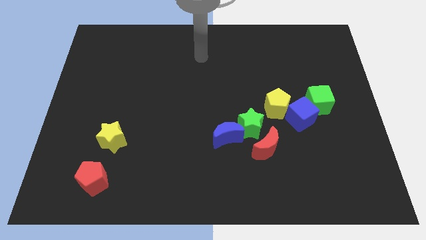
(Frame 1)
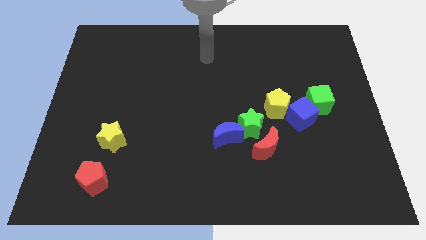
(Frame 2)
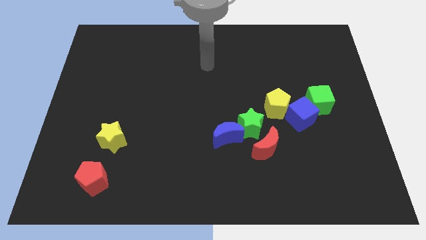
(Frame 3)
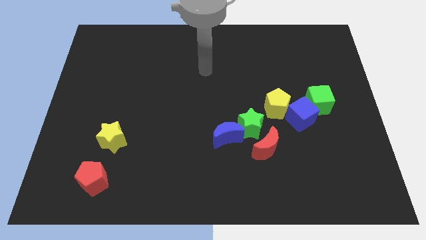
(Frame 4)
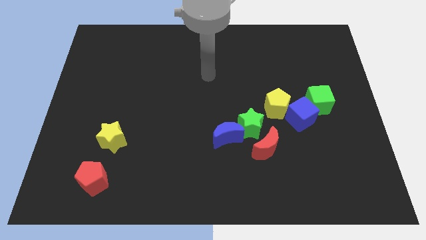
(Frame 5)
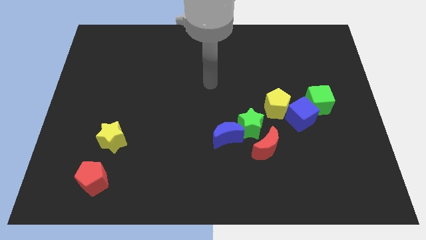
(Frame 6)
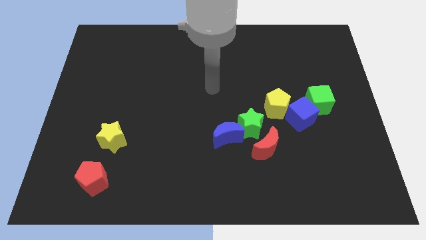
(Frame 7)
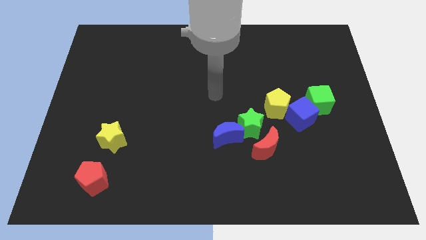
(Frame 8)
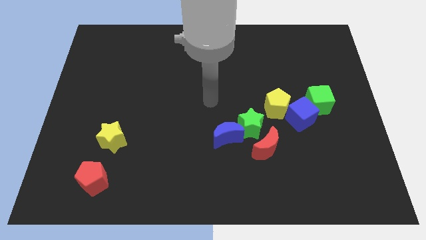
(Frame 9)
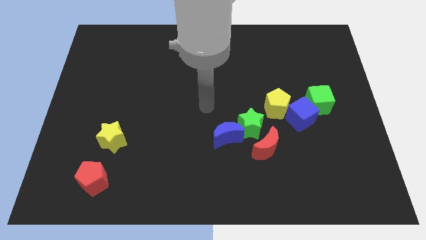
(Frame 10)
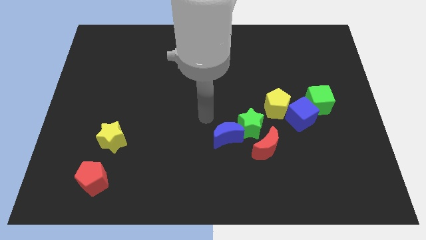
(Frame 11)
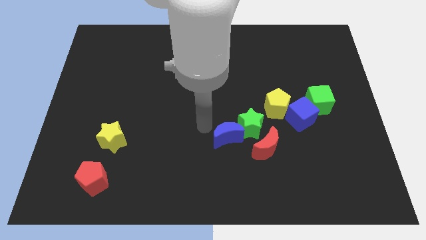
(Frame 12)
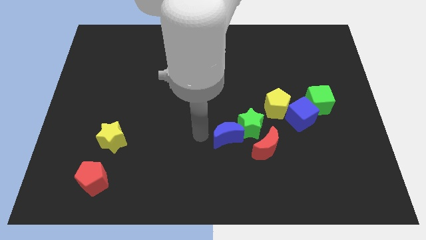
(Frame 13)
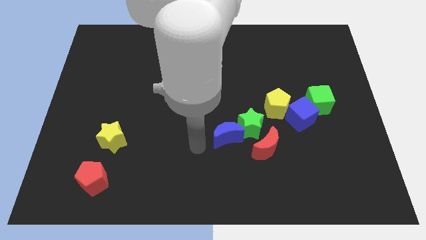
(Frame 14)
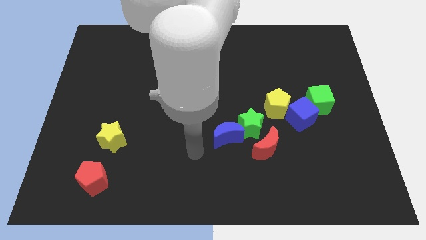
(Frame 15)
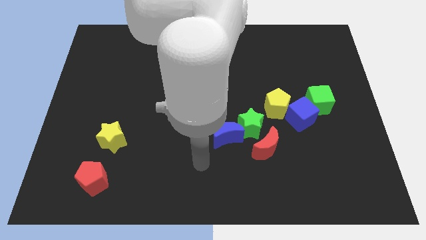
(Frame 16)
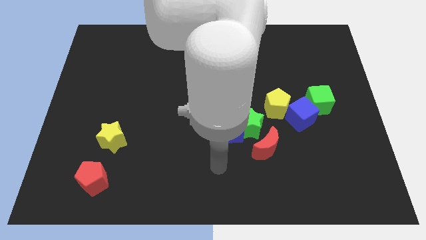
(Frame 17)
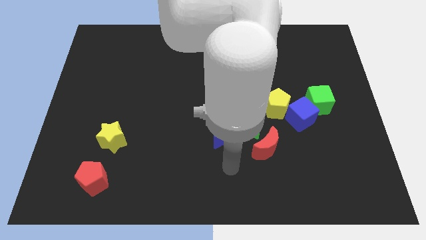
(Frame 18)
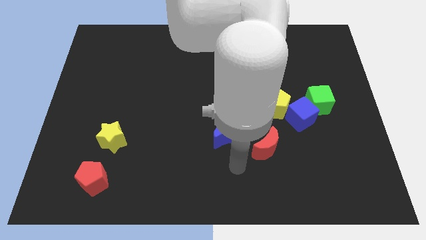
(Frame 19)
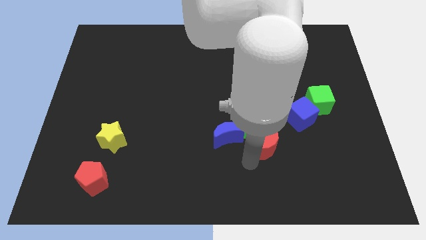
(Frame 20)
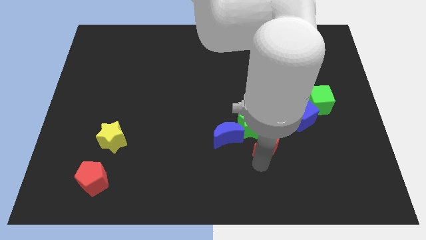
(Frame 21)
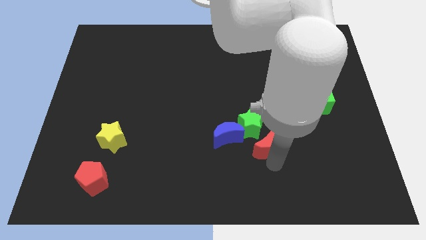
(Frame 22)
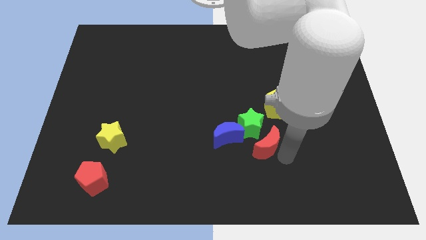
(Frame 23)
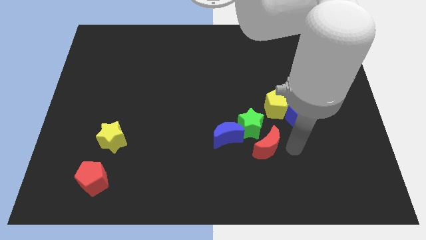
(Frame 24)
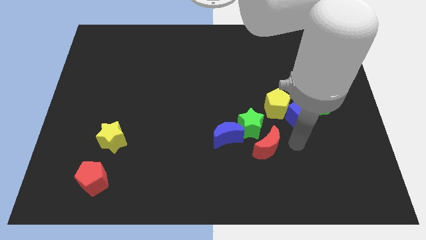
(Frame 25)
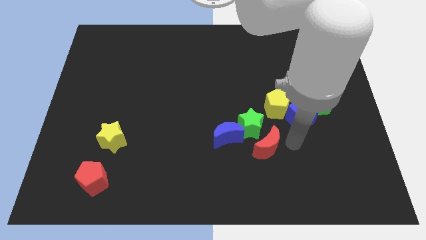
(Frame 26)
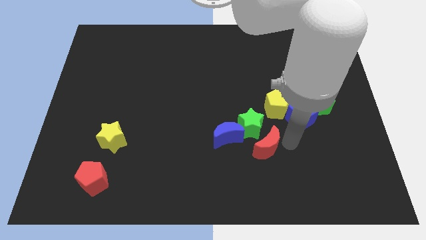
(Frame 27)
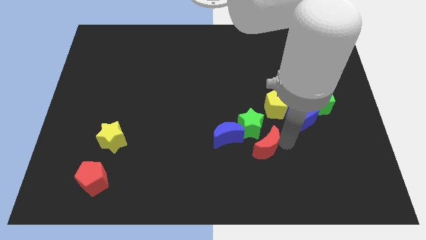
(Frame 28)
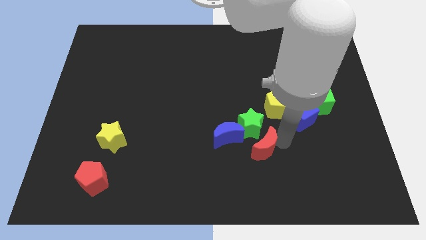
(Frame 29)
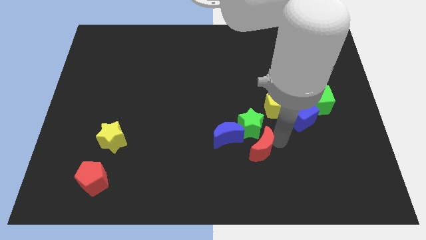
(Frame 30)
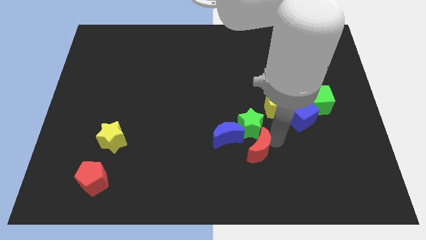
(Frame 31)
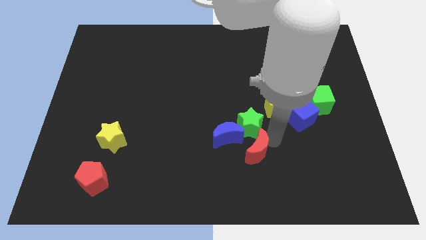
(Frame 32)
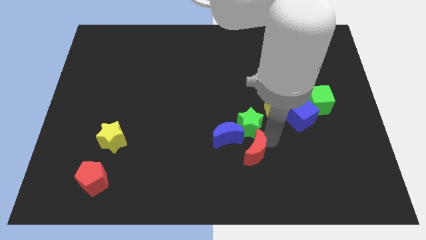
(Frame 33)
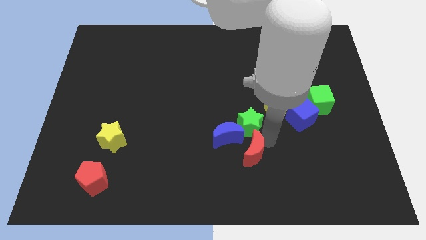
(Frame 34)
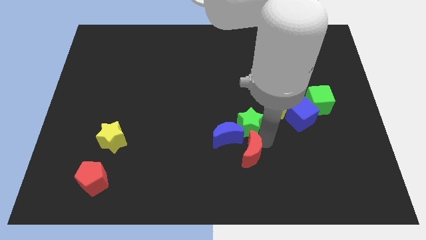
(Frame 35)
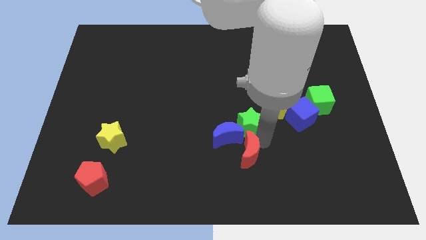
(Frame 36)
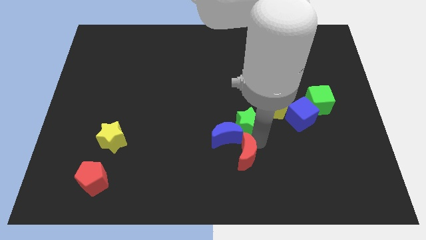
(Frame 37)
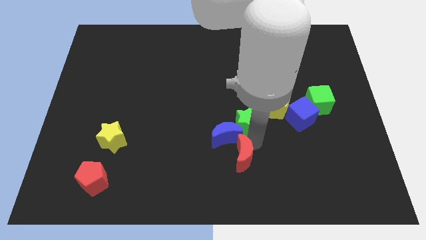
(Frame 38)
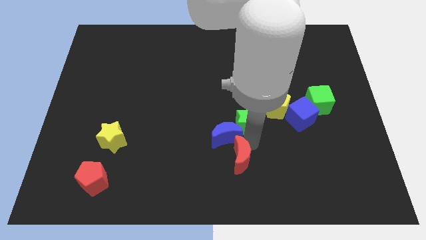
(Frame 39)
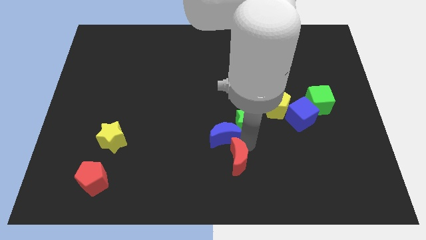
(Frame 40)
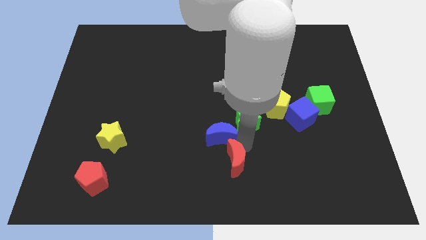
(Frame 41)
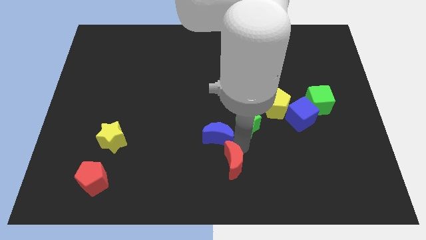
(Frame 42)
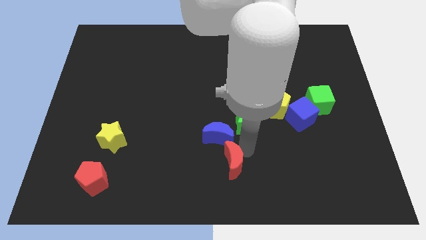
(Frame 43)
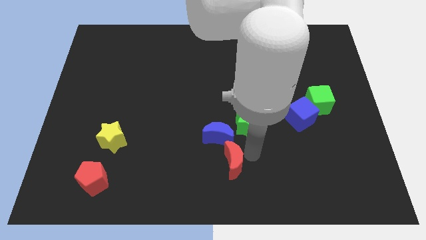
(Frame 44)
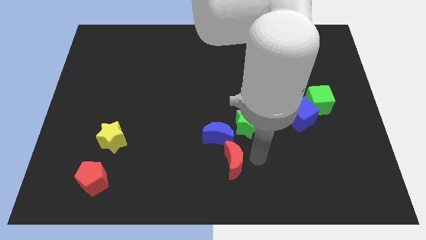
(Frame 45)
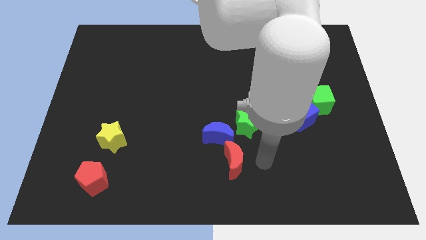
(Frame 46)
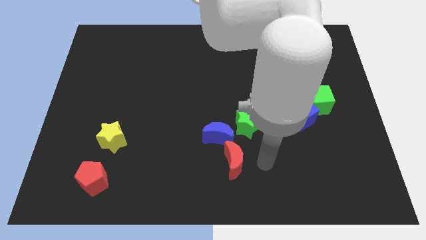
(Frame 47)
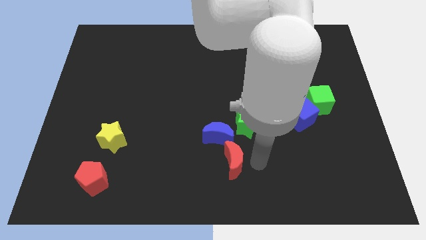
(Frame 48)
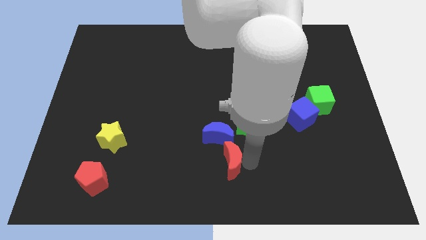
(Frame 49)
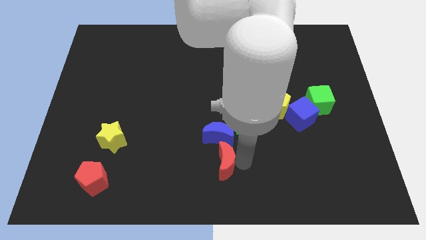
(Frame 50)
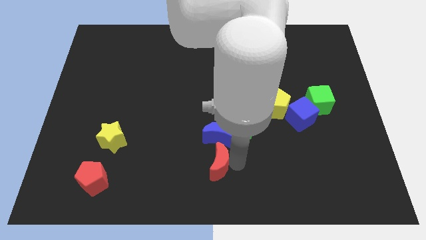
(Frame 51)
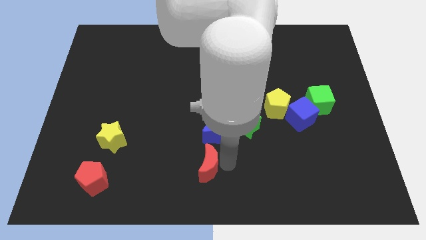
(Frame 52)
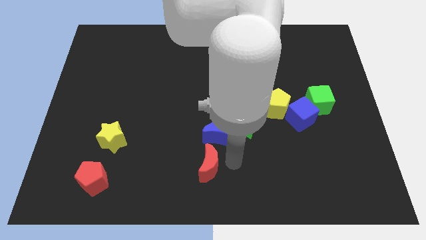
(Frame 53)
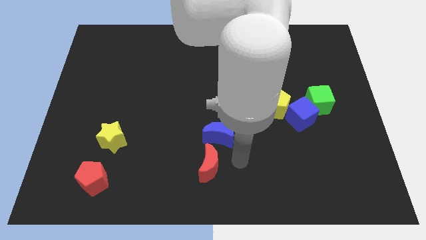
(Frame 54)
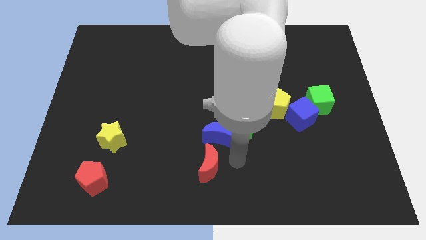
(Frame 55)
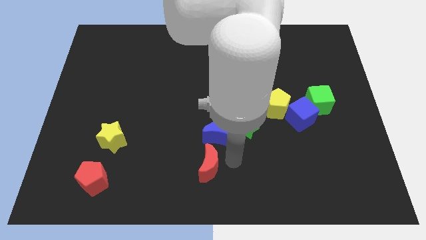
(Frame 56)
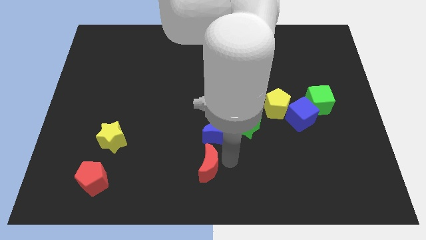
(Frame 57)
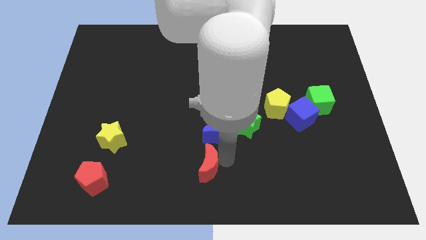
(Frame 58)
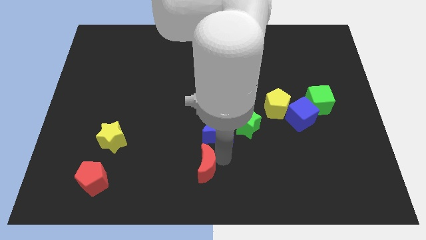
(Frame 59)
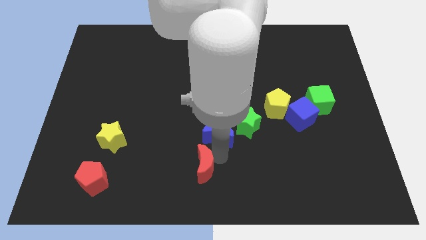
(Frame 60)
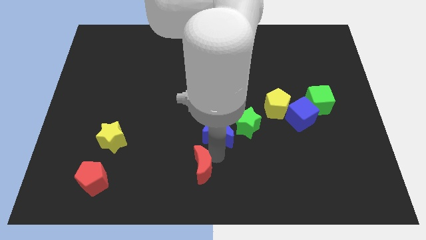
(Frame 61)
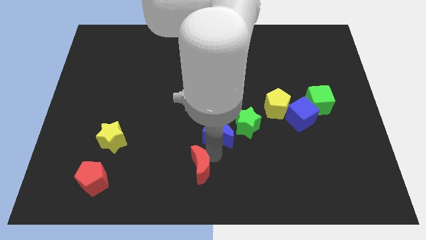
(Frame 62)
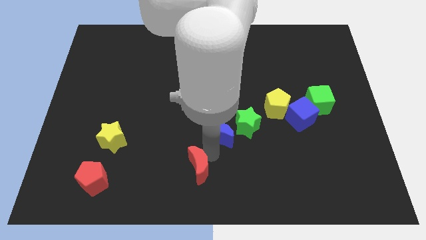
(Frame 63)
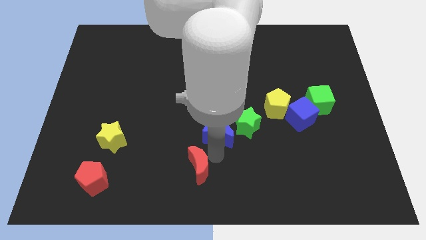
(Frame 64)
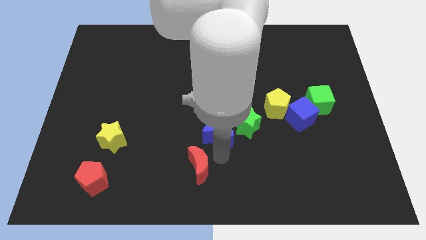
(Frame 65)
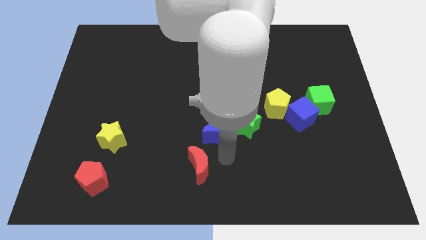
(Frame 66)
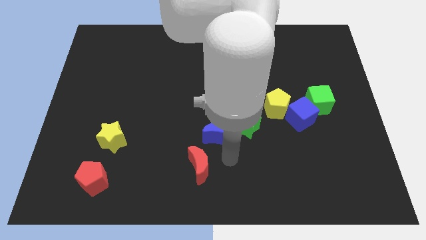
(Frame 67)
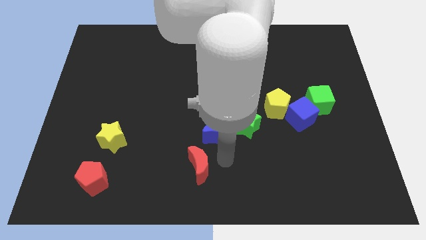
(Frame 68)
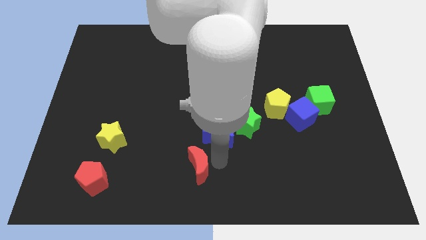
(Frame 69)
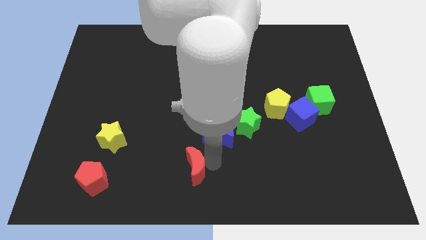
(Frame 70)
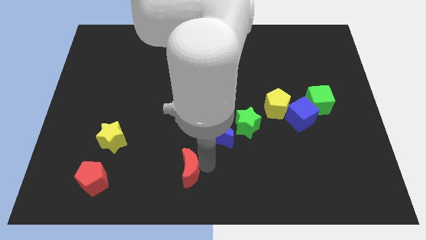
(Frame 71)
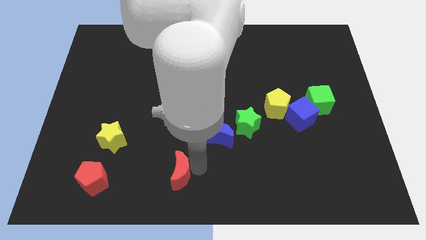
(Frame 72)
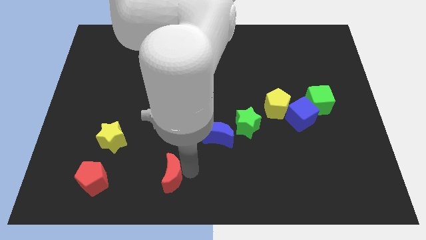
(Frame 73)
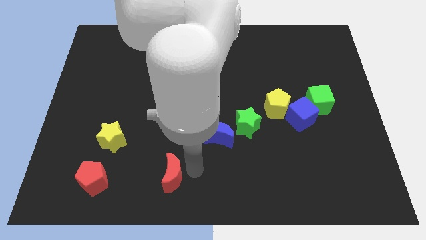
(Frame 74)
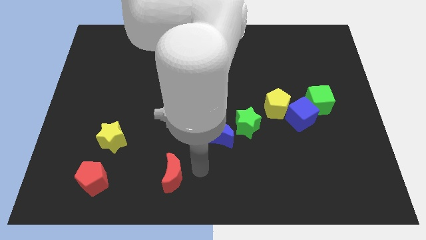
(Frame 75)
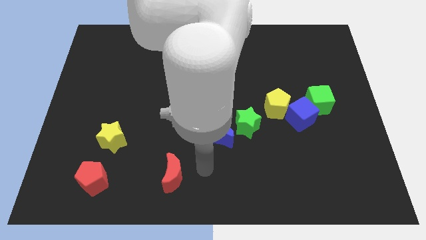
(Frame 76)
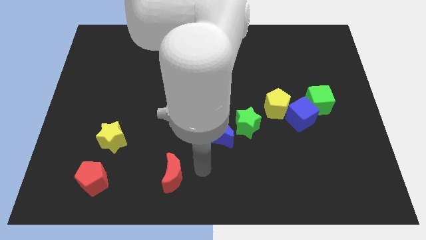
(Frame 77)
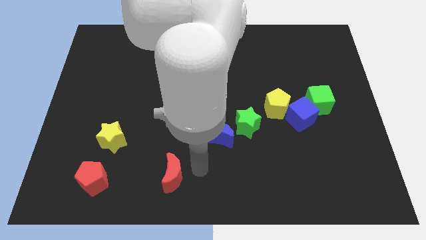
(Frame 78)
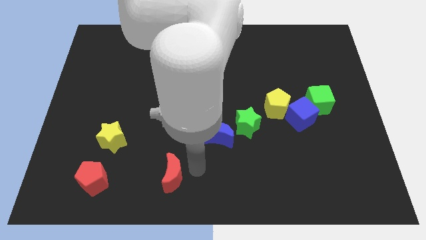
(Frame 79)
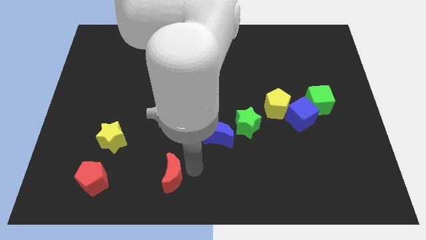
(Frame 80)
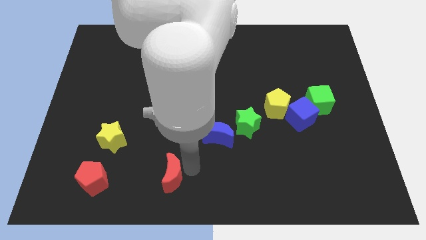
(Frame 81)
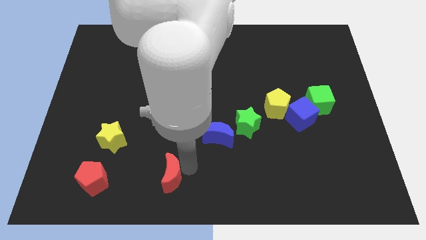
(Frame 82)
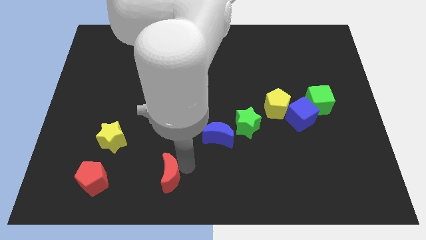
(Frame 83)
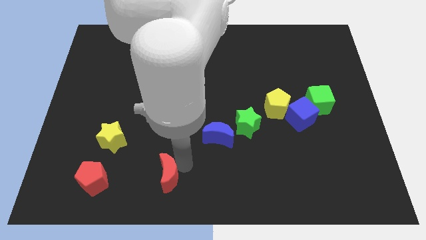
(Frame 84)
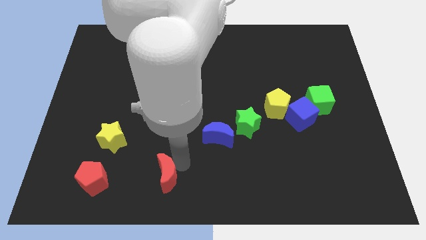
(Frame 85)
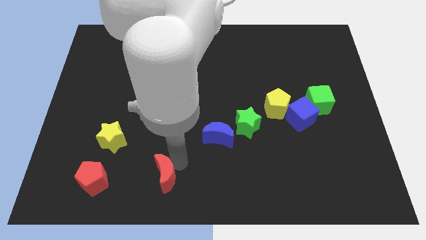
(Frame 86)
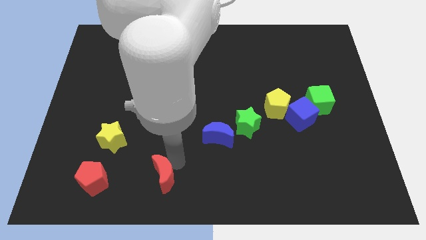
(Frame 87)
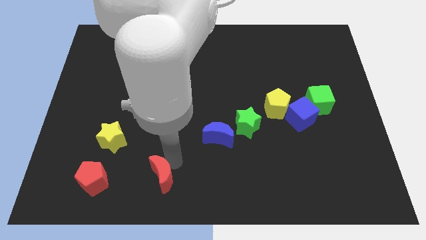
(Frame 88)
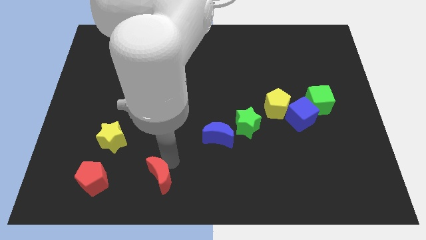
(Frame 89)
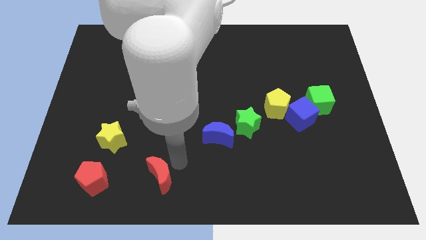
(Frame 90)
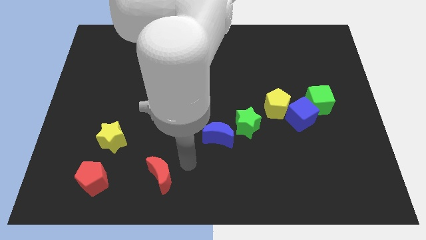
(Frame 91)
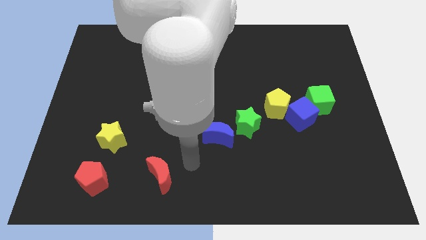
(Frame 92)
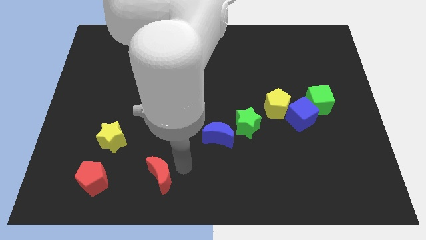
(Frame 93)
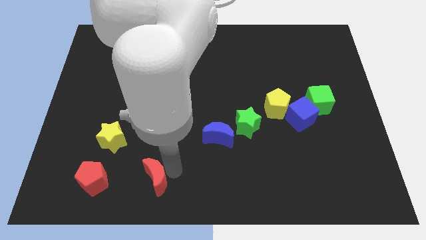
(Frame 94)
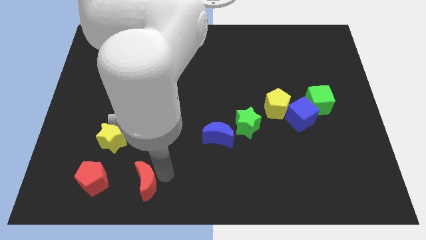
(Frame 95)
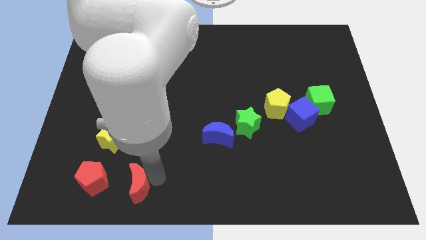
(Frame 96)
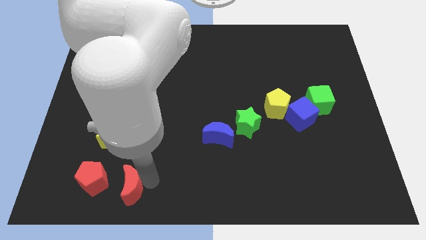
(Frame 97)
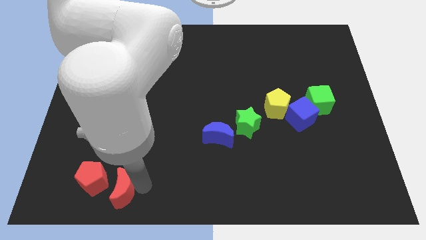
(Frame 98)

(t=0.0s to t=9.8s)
move the red moon below the yellow star
